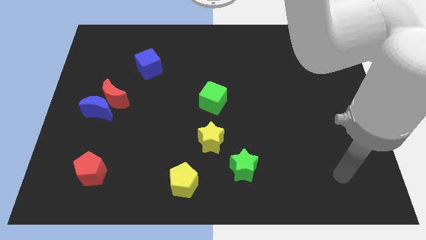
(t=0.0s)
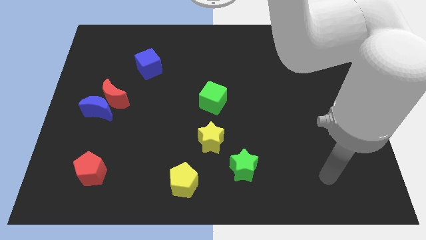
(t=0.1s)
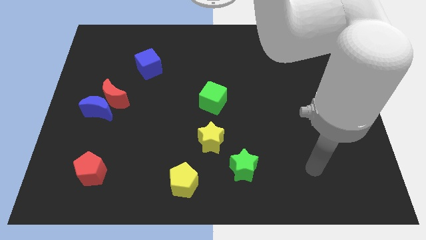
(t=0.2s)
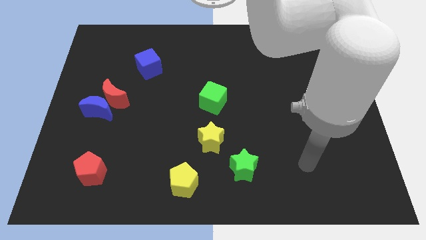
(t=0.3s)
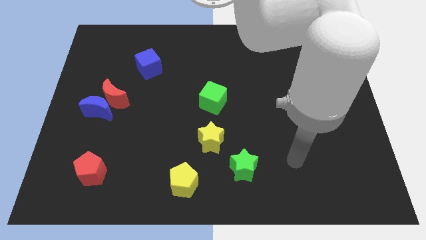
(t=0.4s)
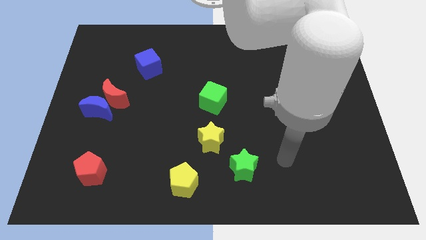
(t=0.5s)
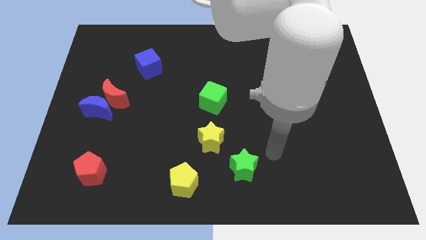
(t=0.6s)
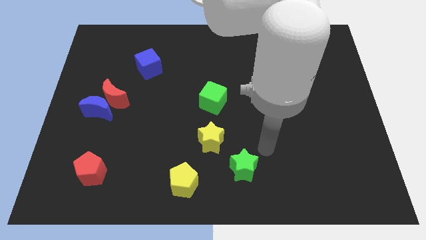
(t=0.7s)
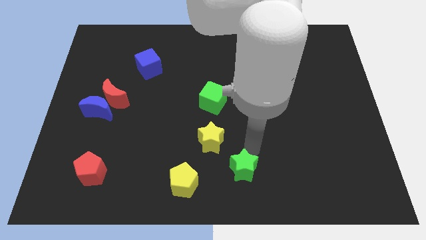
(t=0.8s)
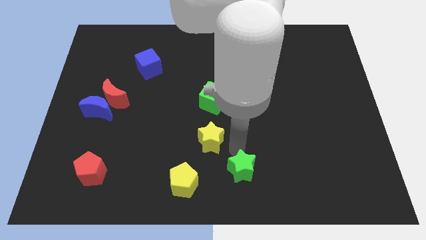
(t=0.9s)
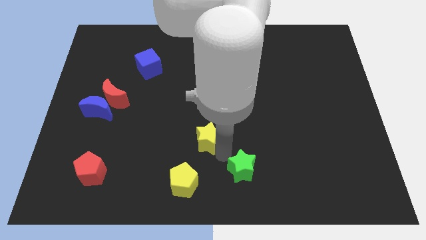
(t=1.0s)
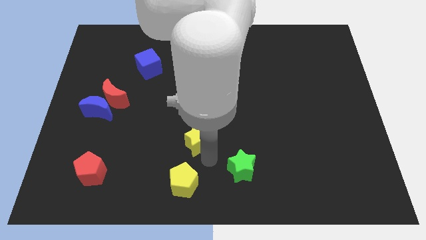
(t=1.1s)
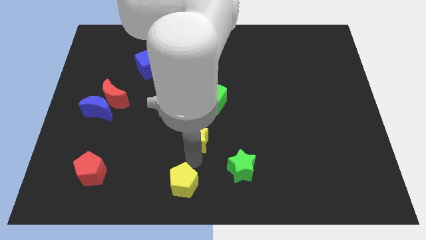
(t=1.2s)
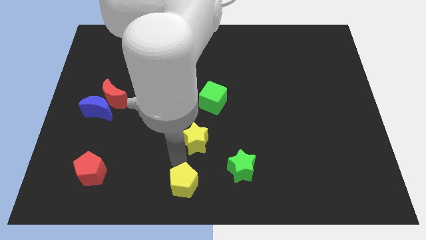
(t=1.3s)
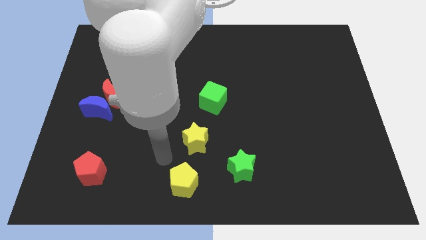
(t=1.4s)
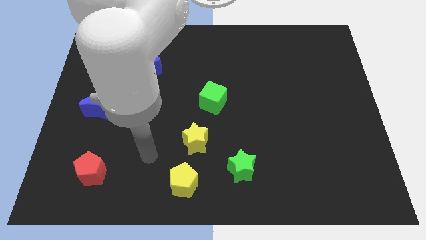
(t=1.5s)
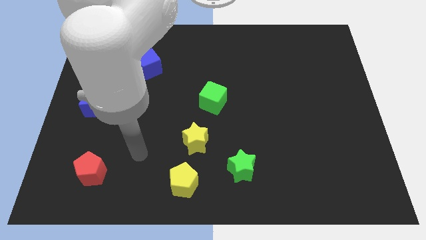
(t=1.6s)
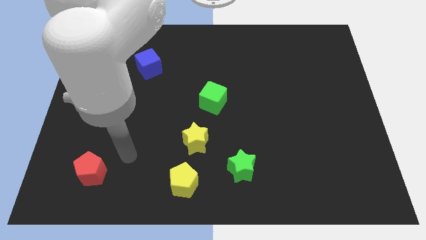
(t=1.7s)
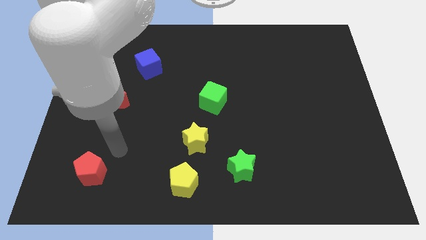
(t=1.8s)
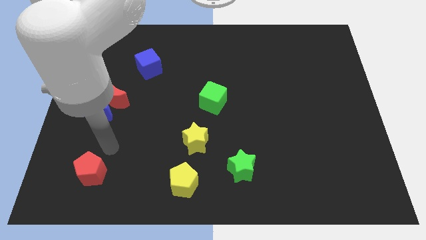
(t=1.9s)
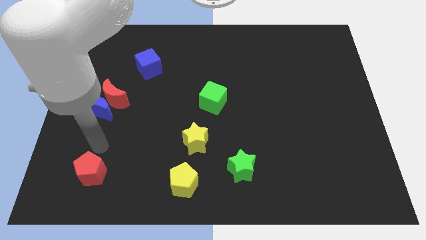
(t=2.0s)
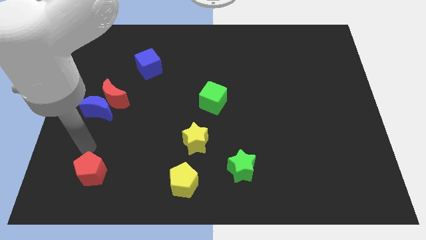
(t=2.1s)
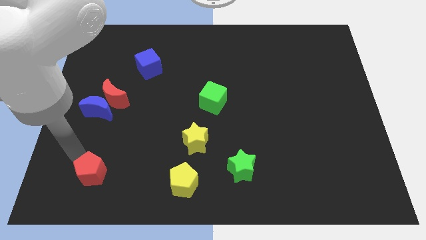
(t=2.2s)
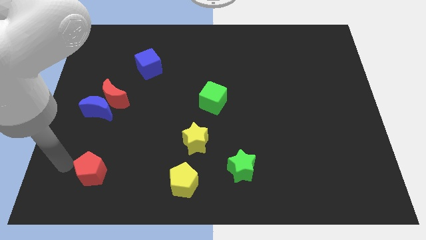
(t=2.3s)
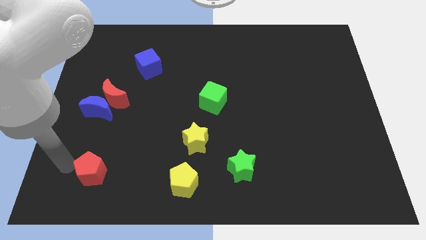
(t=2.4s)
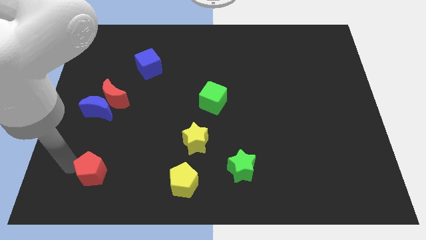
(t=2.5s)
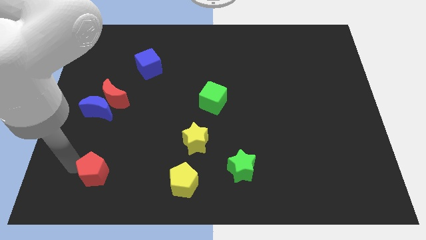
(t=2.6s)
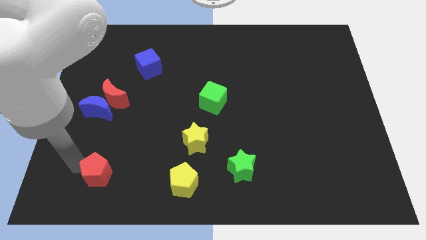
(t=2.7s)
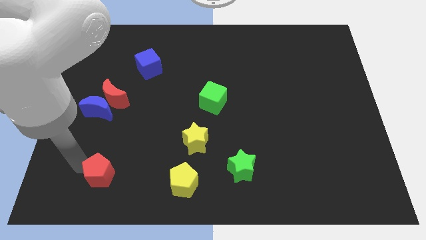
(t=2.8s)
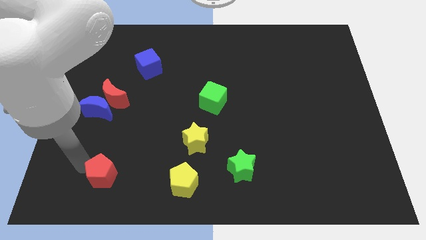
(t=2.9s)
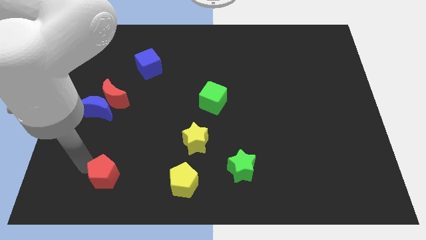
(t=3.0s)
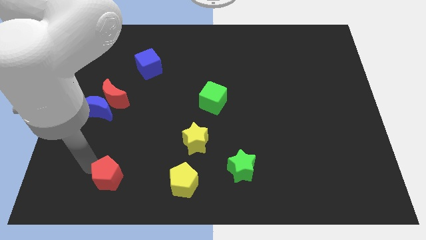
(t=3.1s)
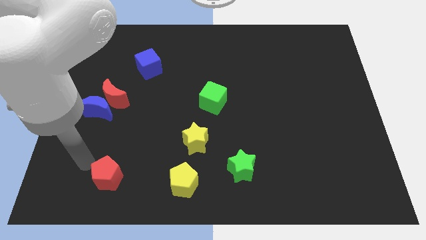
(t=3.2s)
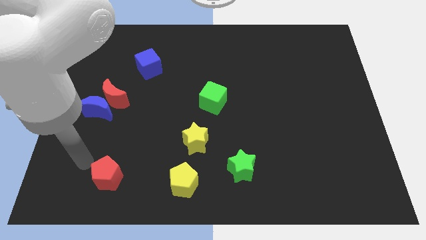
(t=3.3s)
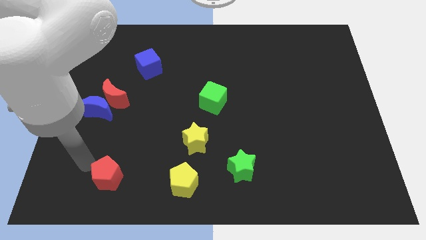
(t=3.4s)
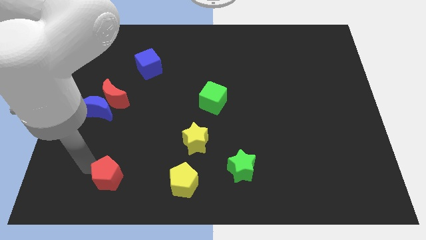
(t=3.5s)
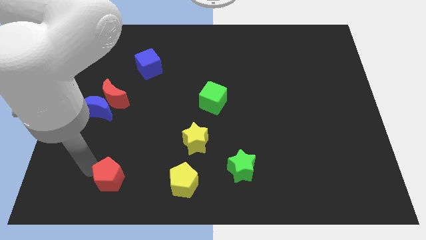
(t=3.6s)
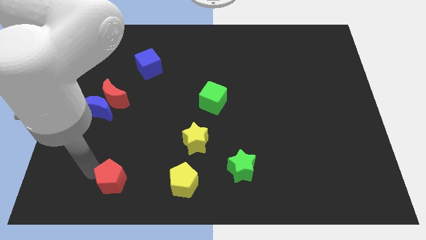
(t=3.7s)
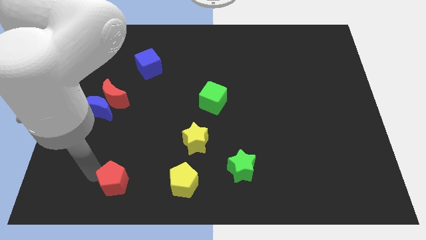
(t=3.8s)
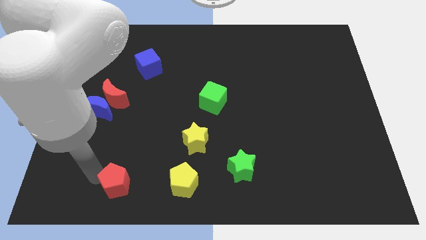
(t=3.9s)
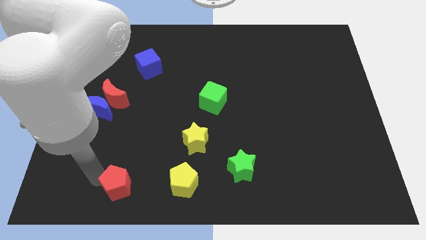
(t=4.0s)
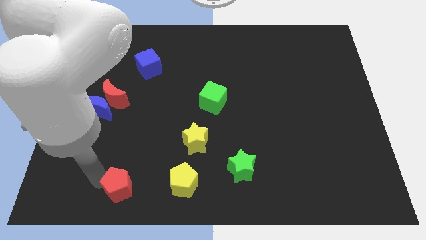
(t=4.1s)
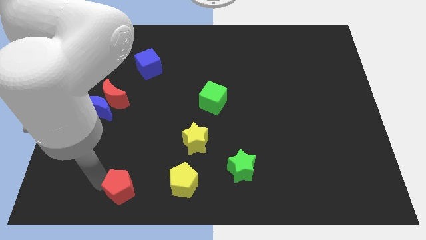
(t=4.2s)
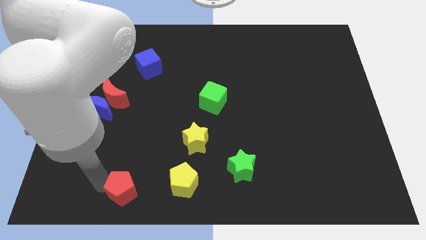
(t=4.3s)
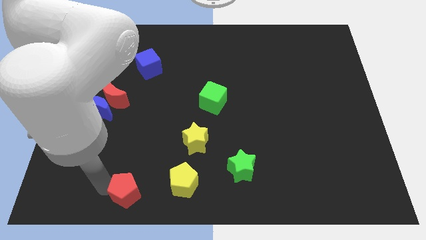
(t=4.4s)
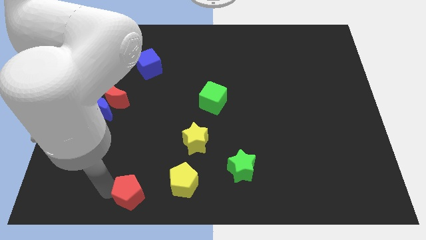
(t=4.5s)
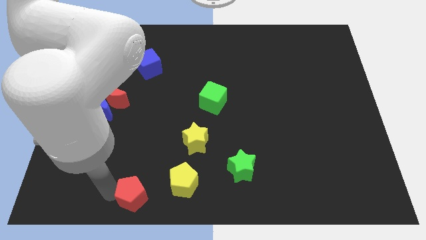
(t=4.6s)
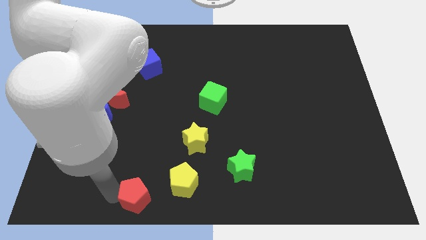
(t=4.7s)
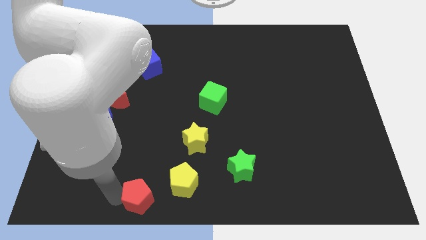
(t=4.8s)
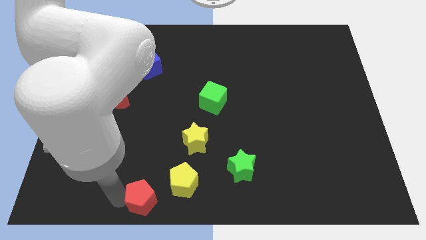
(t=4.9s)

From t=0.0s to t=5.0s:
slide the red pentagon to the bottom

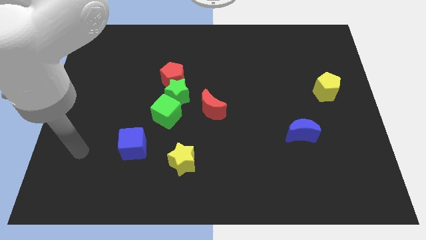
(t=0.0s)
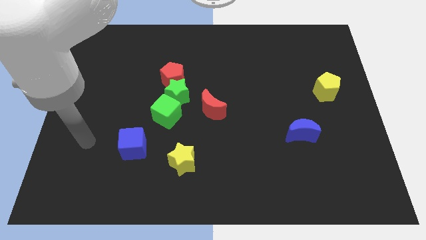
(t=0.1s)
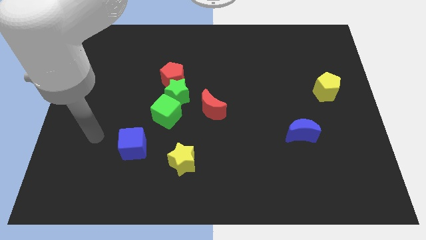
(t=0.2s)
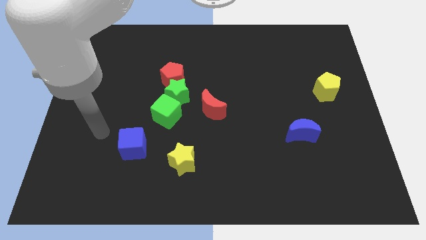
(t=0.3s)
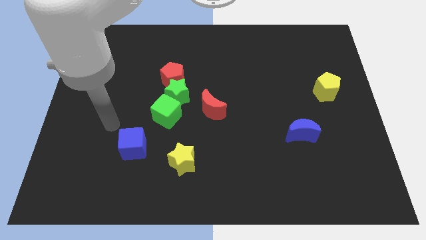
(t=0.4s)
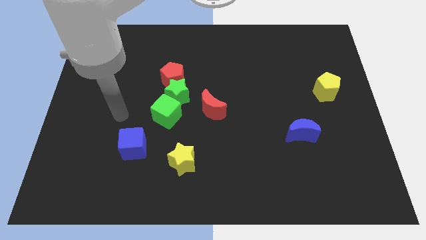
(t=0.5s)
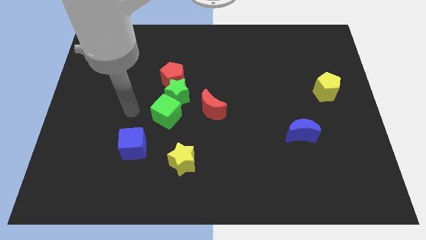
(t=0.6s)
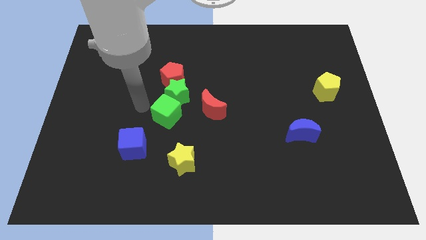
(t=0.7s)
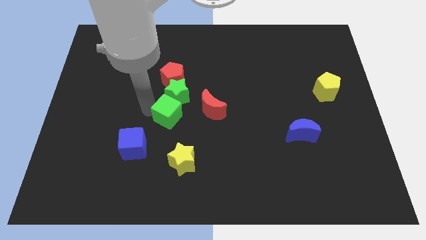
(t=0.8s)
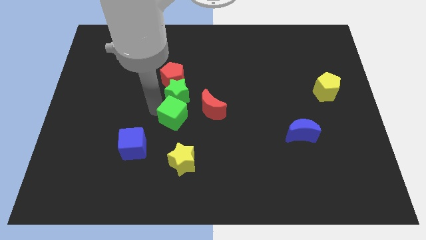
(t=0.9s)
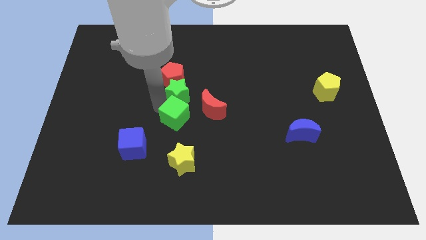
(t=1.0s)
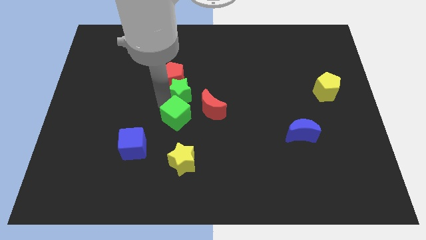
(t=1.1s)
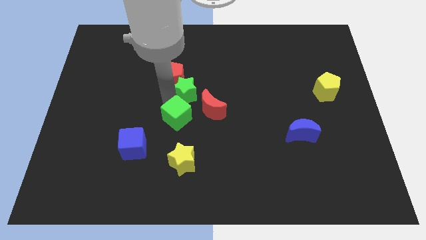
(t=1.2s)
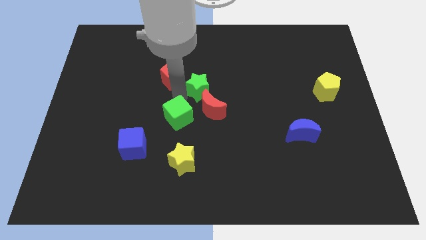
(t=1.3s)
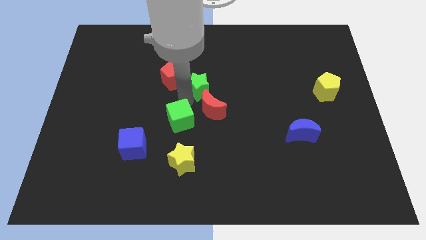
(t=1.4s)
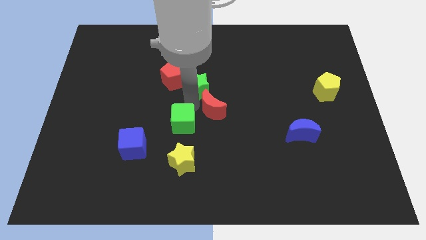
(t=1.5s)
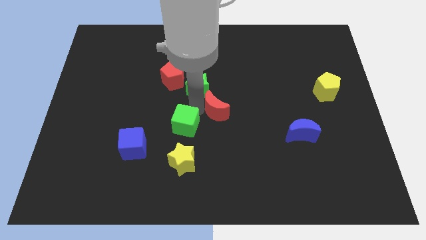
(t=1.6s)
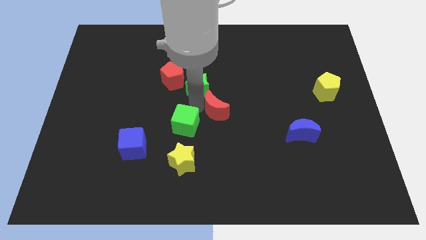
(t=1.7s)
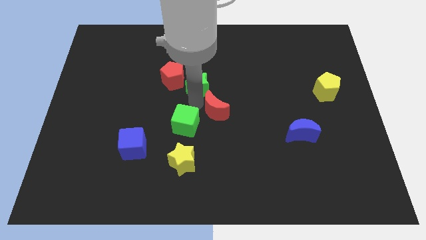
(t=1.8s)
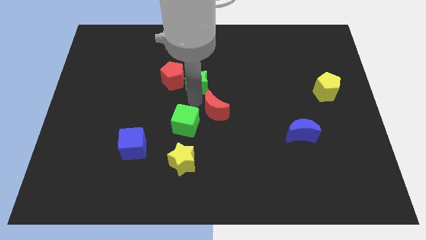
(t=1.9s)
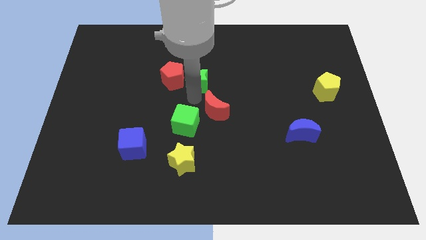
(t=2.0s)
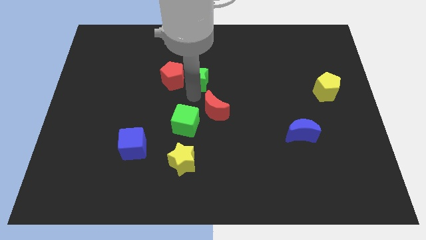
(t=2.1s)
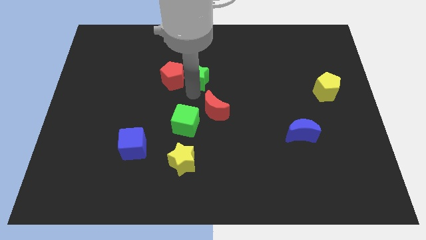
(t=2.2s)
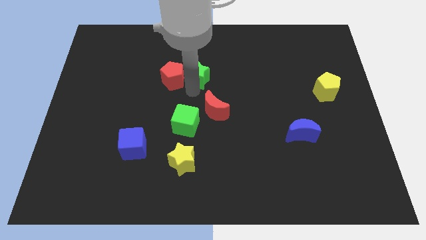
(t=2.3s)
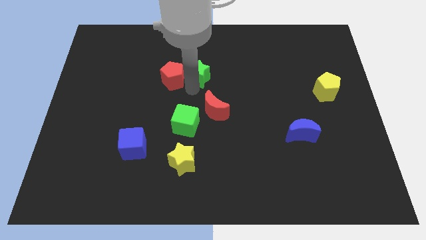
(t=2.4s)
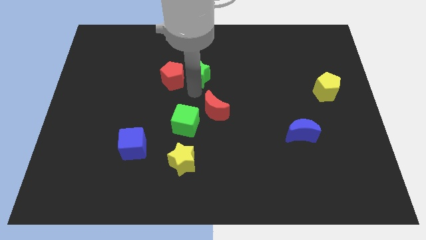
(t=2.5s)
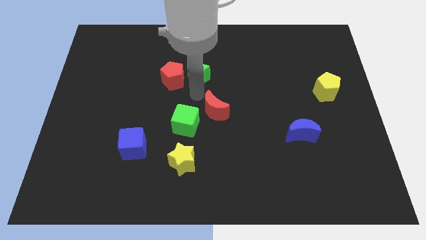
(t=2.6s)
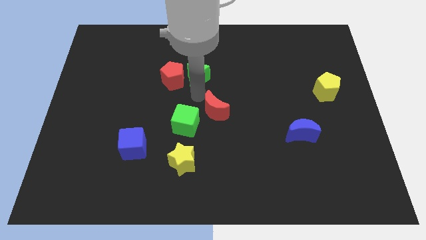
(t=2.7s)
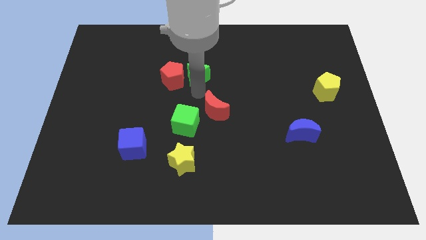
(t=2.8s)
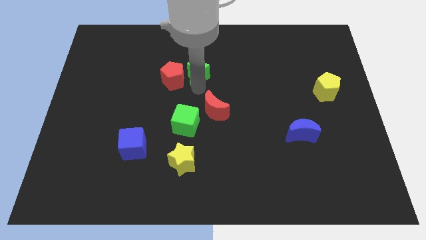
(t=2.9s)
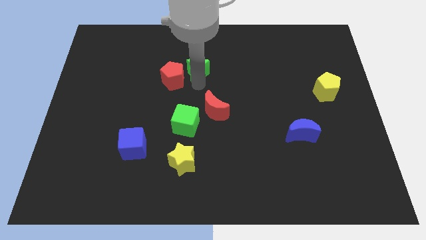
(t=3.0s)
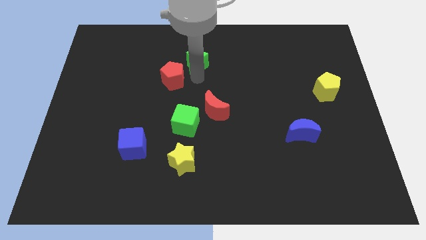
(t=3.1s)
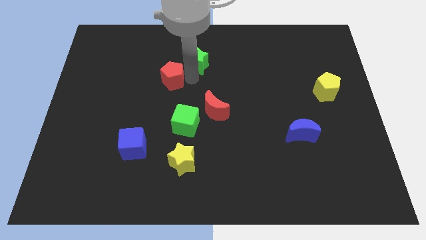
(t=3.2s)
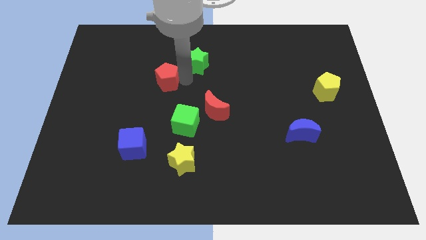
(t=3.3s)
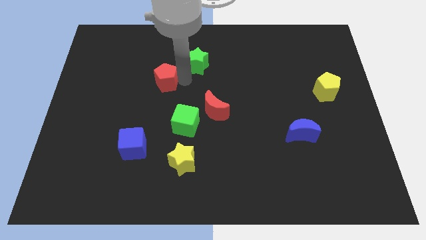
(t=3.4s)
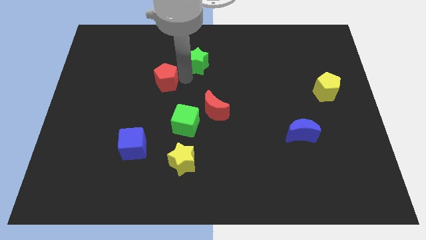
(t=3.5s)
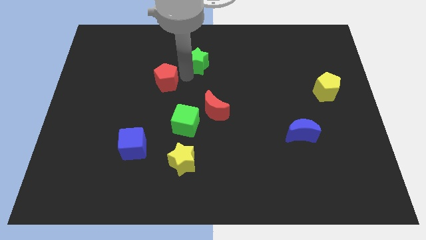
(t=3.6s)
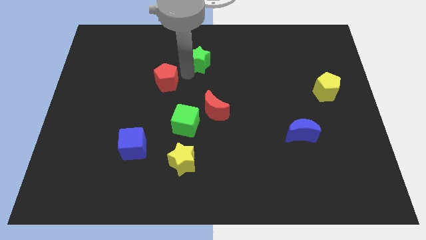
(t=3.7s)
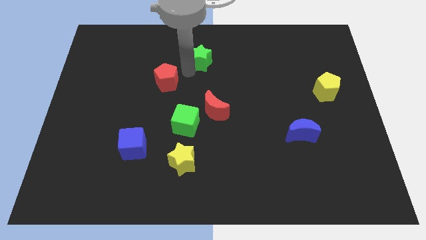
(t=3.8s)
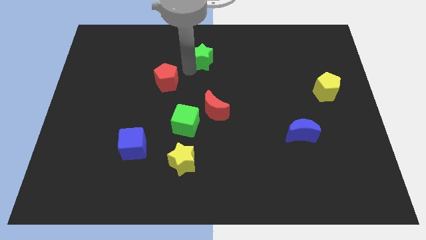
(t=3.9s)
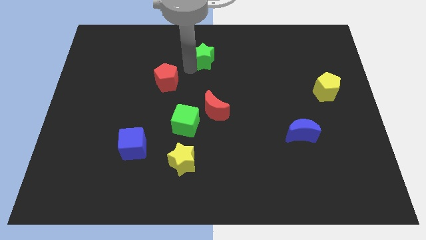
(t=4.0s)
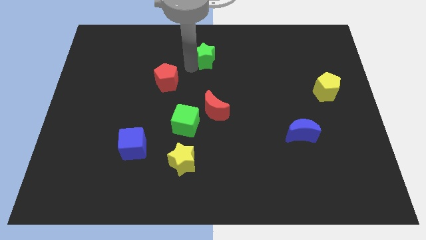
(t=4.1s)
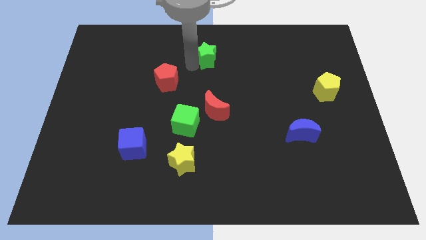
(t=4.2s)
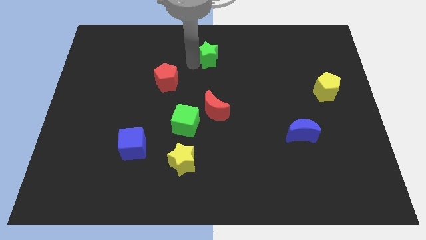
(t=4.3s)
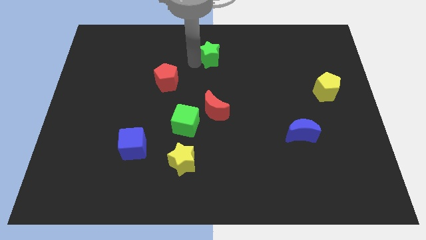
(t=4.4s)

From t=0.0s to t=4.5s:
push the green star to the top side
